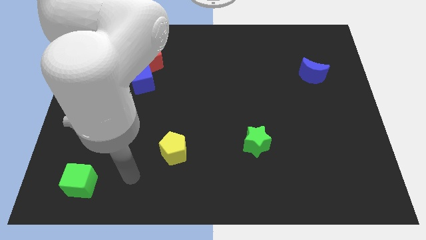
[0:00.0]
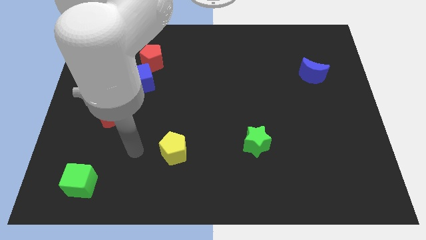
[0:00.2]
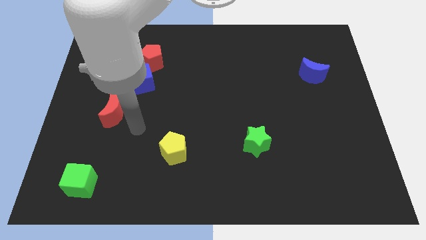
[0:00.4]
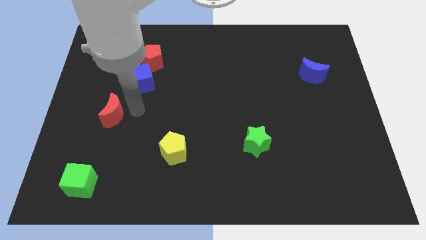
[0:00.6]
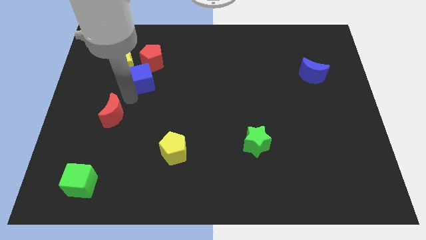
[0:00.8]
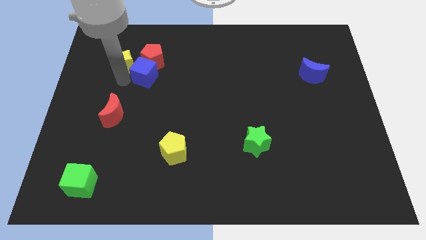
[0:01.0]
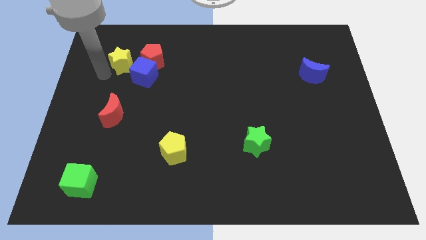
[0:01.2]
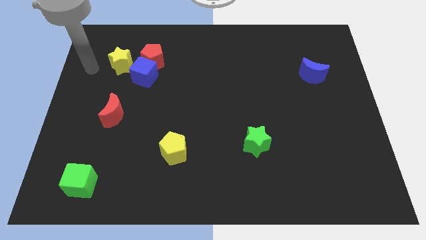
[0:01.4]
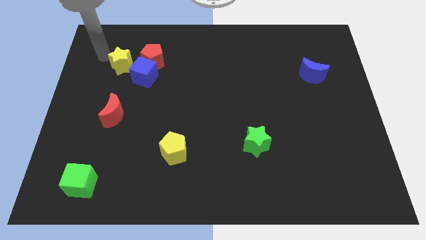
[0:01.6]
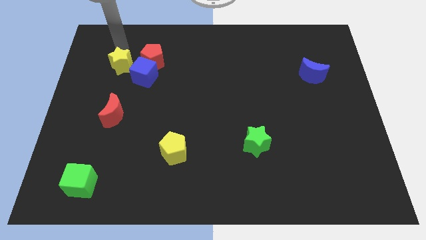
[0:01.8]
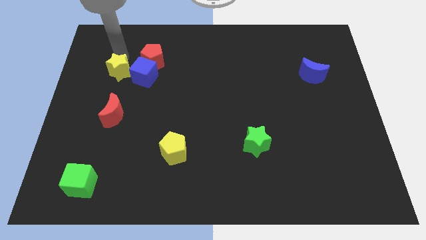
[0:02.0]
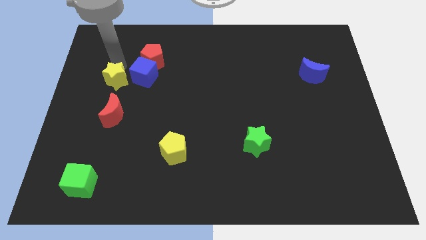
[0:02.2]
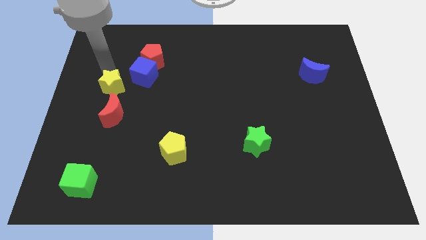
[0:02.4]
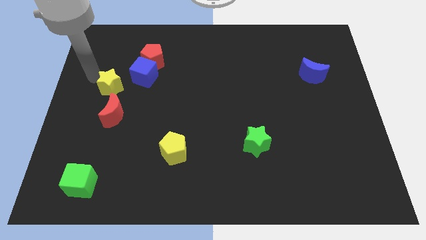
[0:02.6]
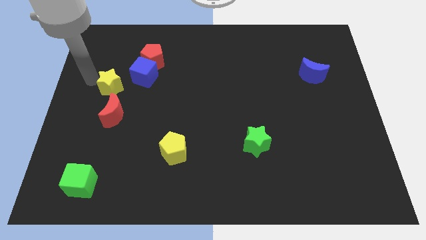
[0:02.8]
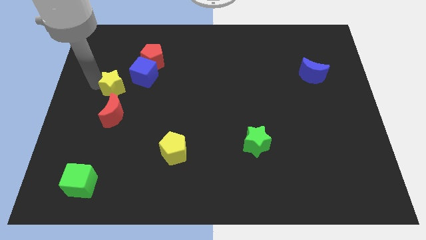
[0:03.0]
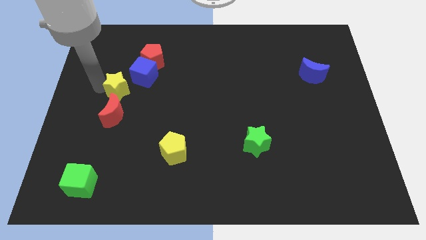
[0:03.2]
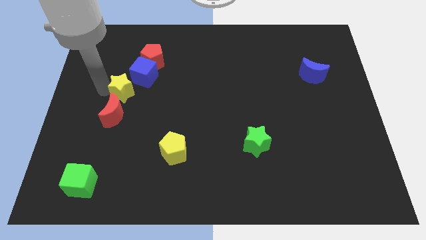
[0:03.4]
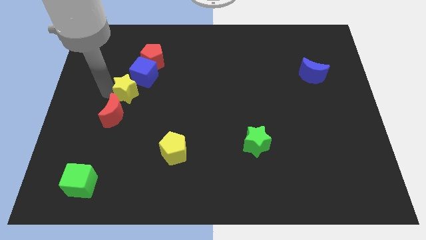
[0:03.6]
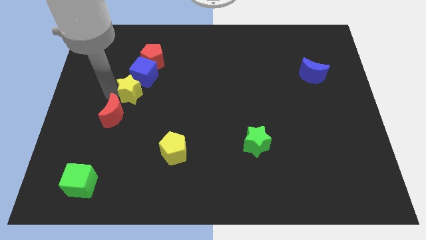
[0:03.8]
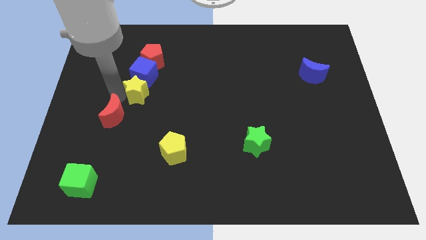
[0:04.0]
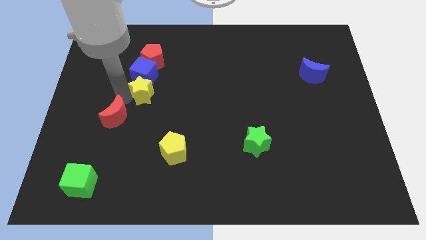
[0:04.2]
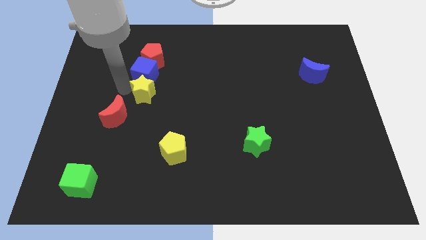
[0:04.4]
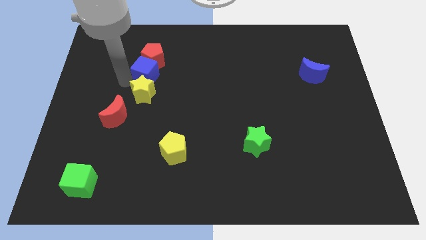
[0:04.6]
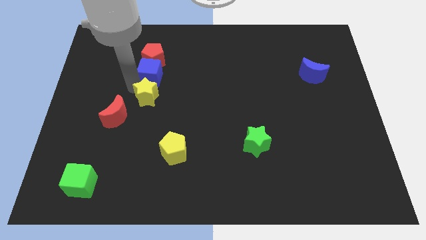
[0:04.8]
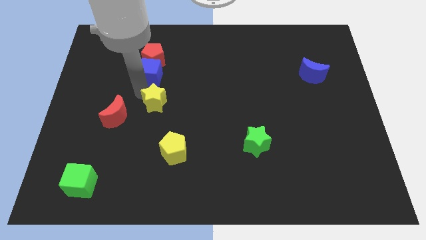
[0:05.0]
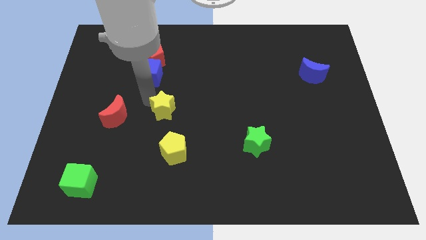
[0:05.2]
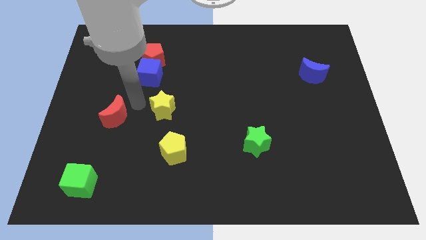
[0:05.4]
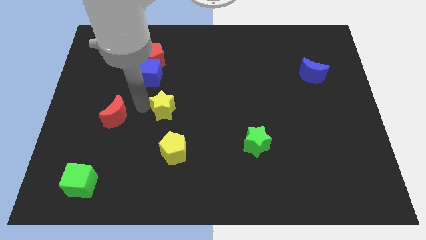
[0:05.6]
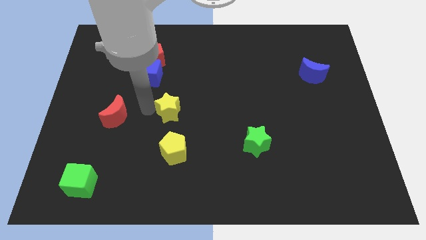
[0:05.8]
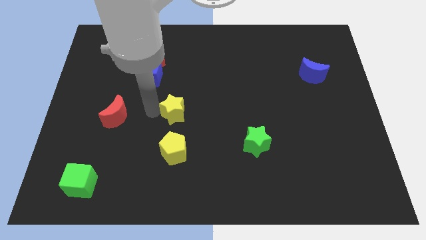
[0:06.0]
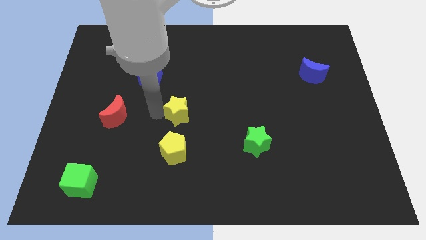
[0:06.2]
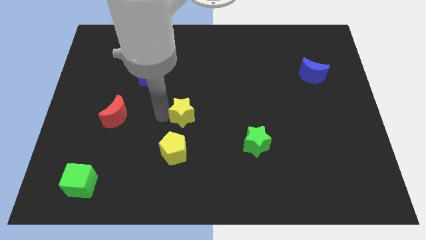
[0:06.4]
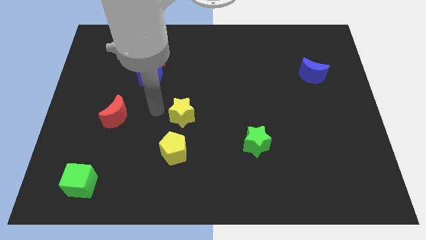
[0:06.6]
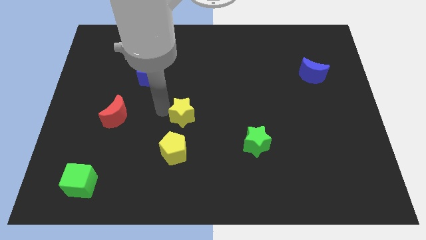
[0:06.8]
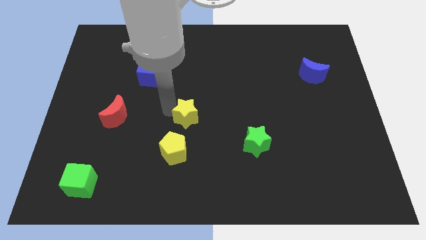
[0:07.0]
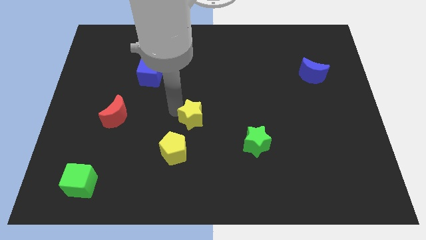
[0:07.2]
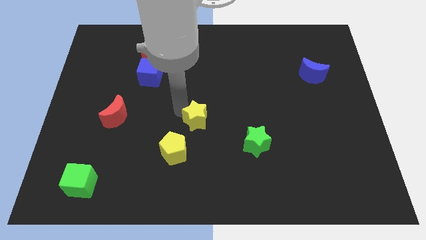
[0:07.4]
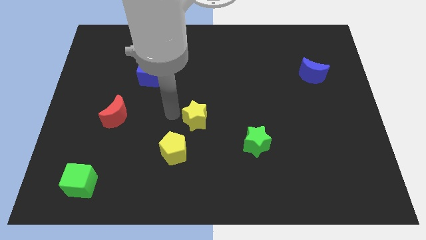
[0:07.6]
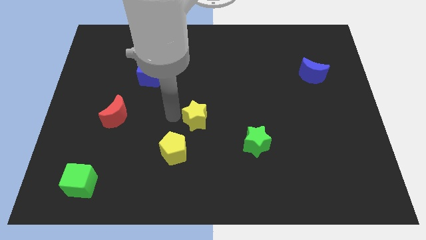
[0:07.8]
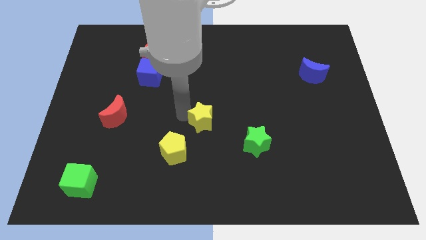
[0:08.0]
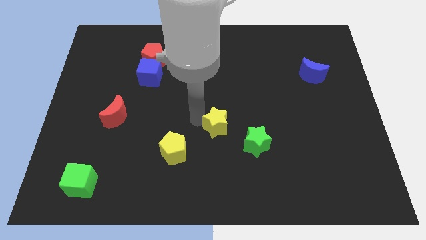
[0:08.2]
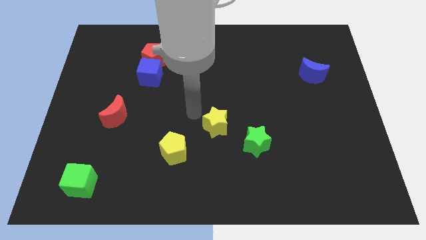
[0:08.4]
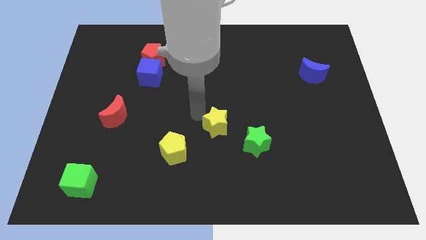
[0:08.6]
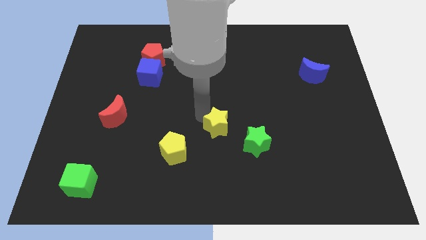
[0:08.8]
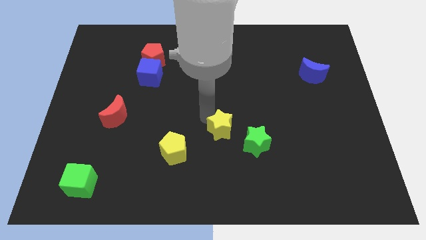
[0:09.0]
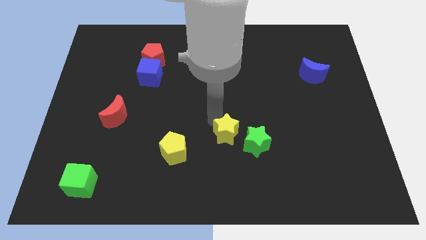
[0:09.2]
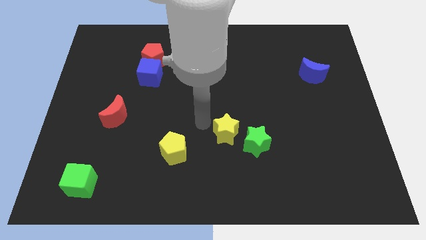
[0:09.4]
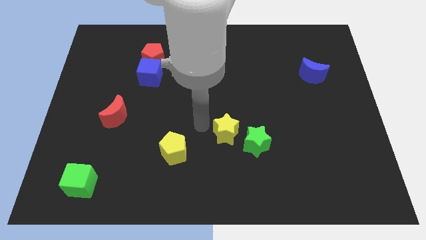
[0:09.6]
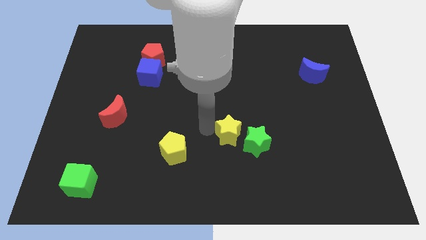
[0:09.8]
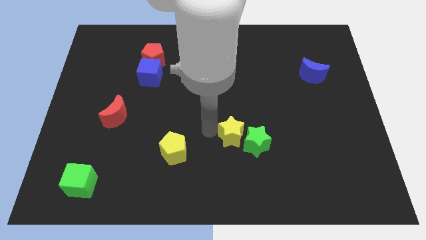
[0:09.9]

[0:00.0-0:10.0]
push the yellow star next to the green star

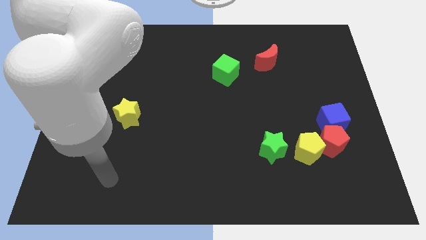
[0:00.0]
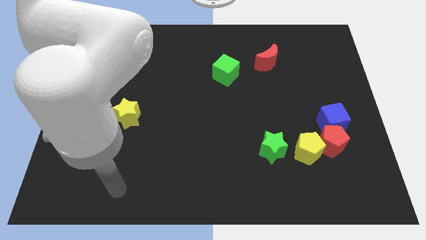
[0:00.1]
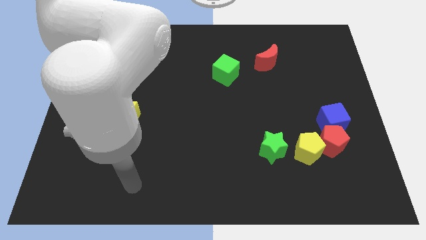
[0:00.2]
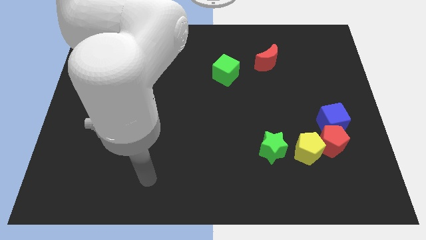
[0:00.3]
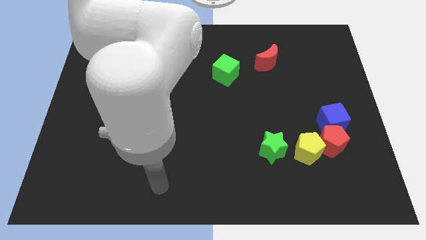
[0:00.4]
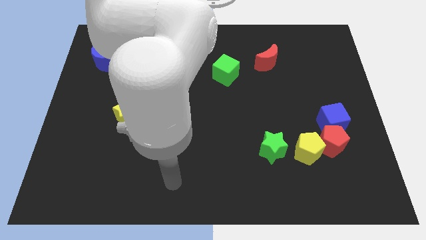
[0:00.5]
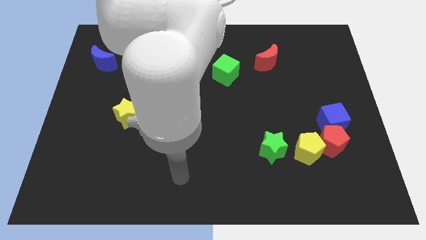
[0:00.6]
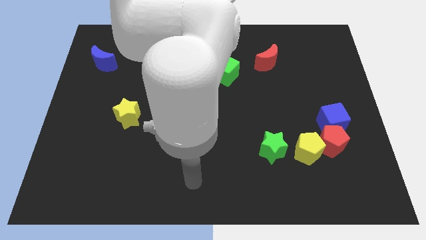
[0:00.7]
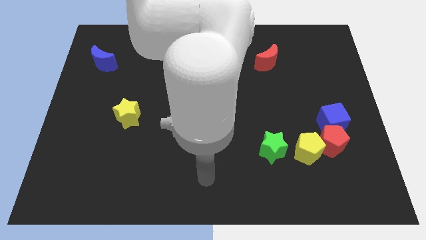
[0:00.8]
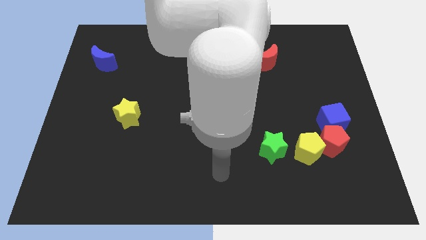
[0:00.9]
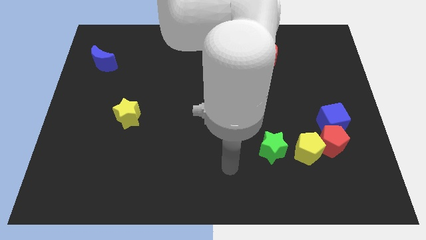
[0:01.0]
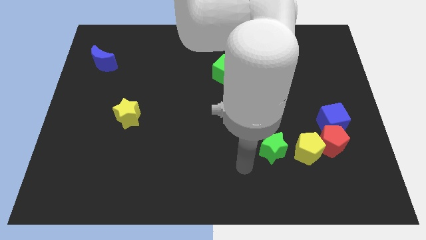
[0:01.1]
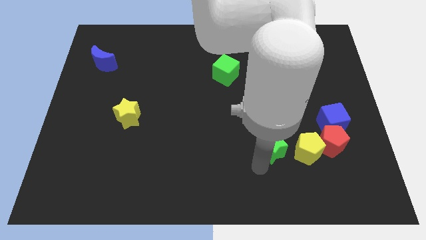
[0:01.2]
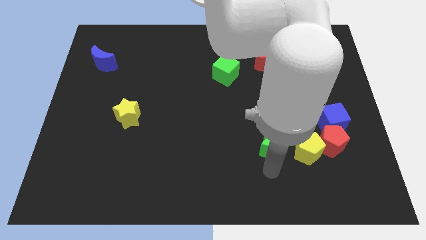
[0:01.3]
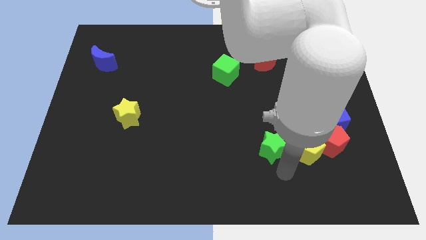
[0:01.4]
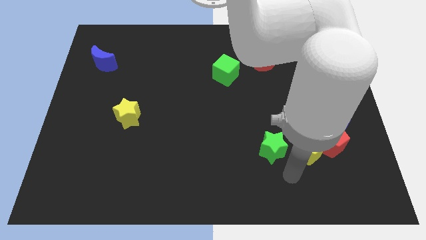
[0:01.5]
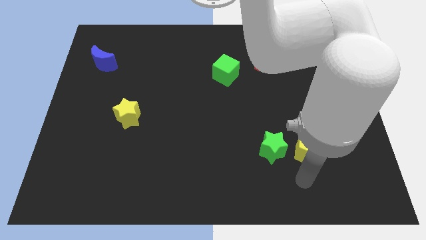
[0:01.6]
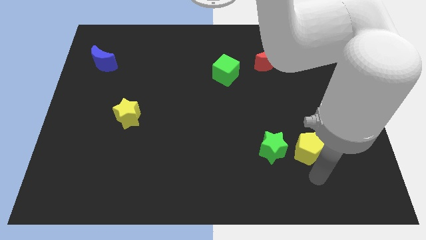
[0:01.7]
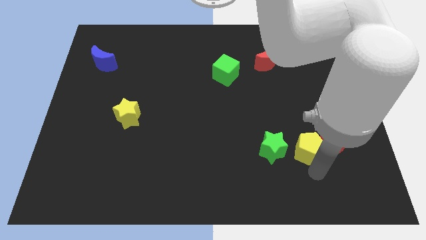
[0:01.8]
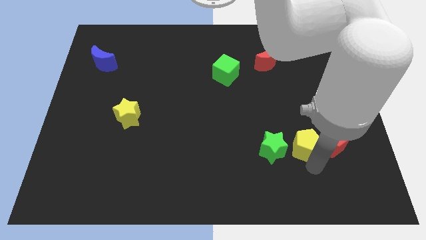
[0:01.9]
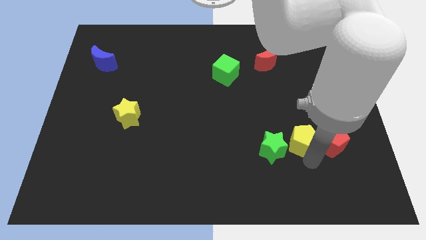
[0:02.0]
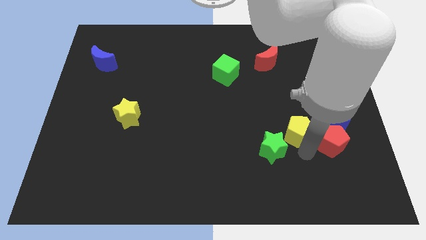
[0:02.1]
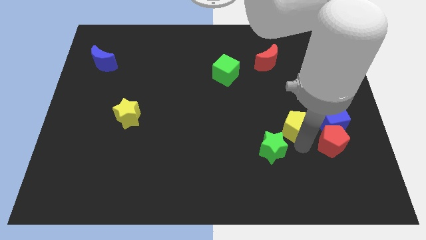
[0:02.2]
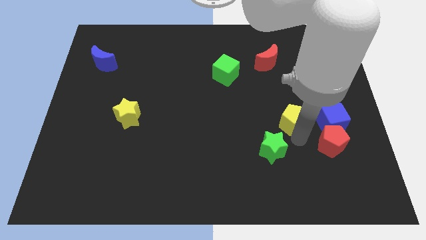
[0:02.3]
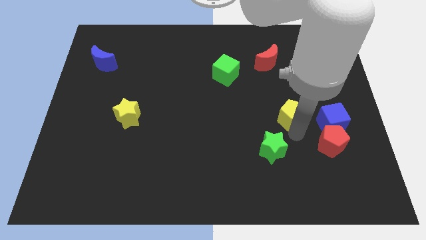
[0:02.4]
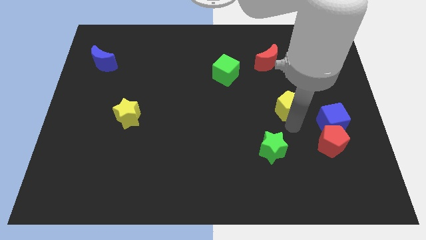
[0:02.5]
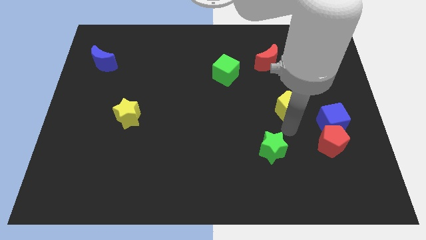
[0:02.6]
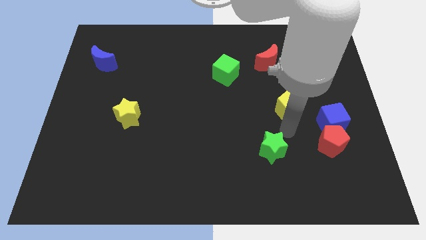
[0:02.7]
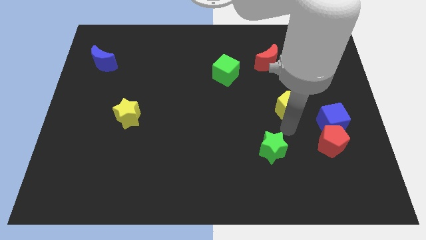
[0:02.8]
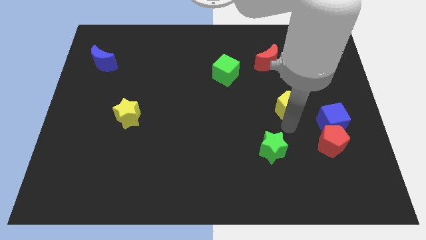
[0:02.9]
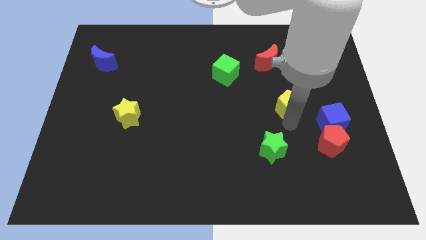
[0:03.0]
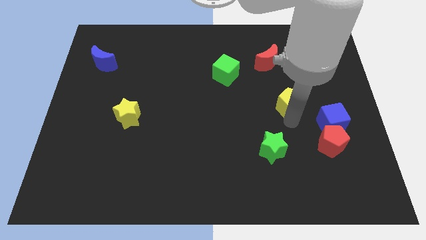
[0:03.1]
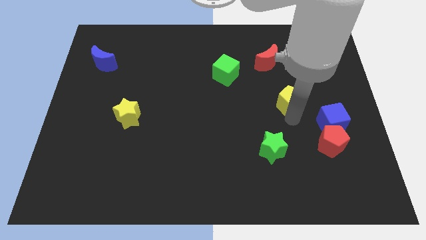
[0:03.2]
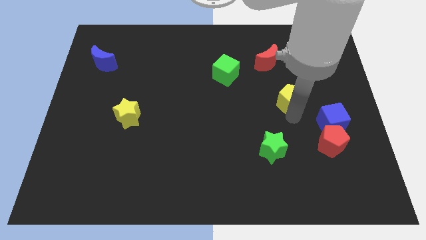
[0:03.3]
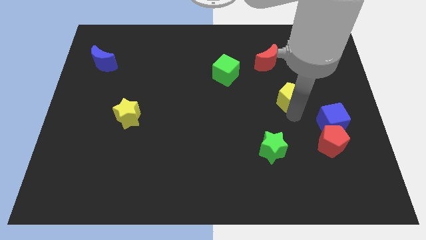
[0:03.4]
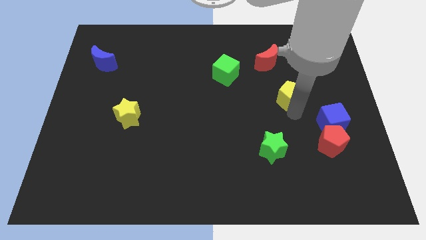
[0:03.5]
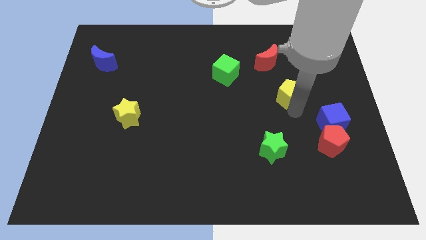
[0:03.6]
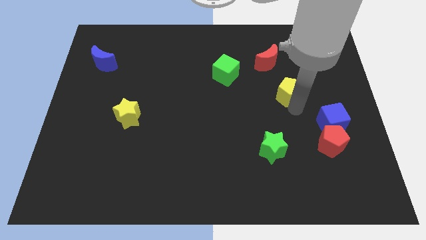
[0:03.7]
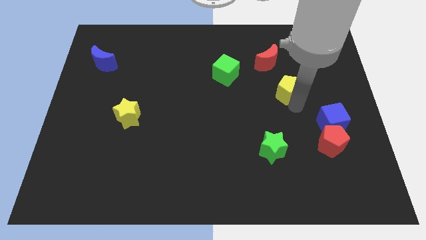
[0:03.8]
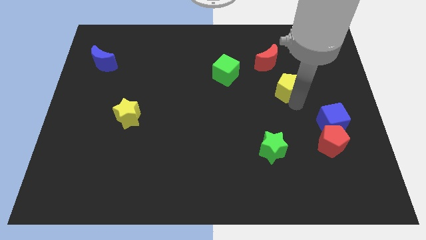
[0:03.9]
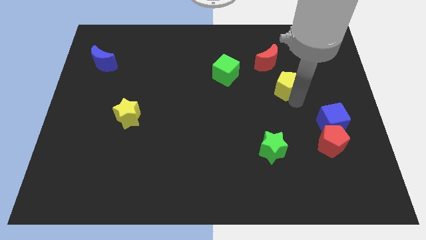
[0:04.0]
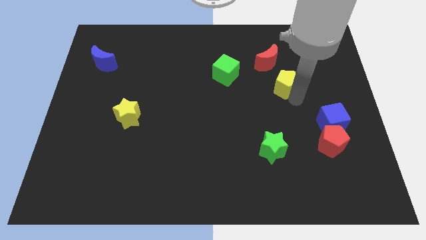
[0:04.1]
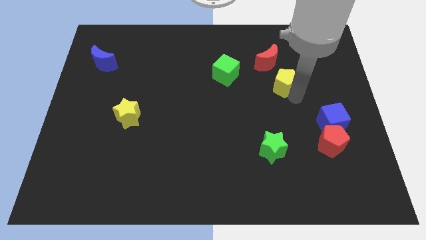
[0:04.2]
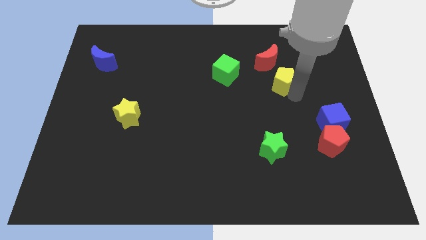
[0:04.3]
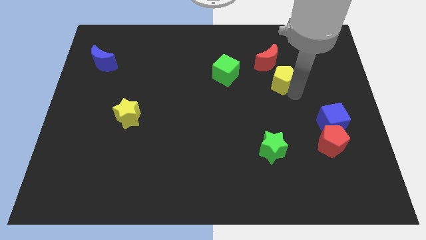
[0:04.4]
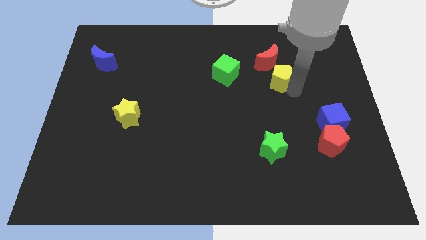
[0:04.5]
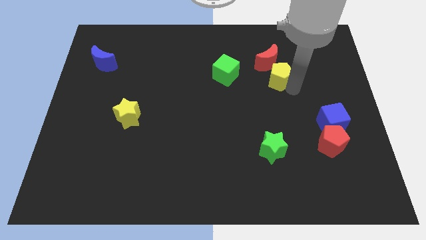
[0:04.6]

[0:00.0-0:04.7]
push the yellow pentagon close to the red moon
